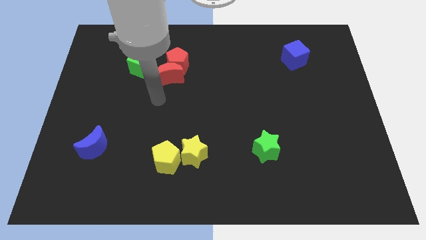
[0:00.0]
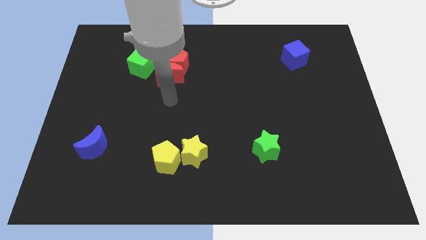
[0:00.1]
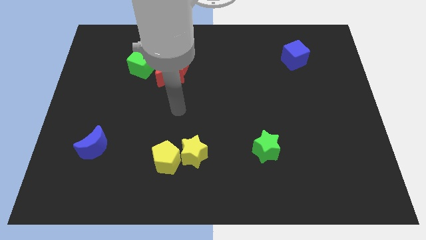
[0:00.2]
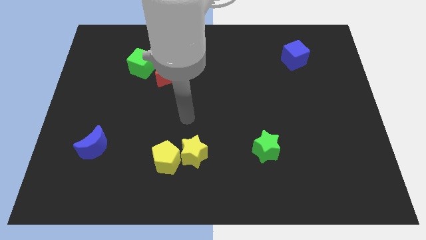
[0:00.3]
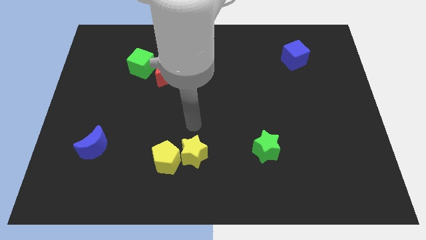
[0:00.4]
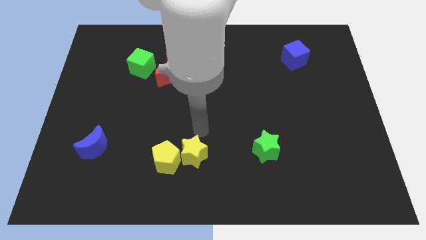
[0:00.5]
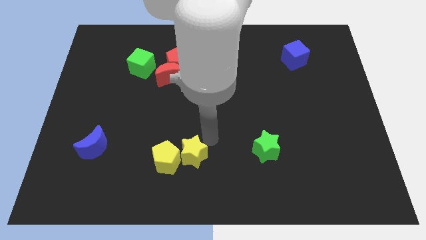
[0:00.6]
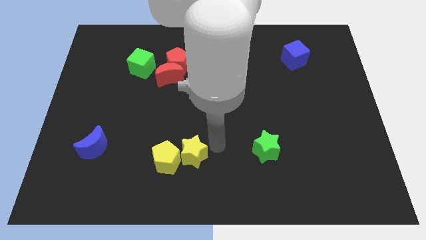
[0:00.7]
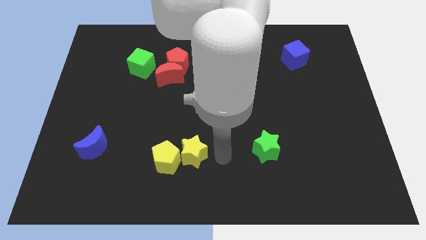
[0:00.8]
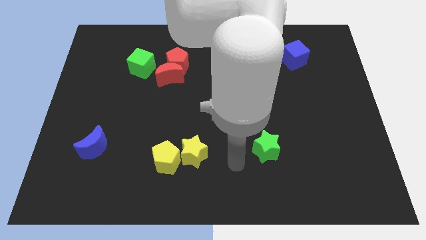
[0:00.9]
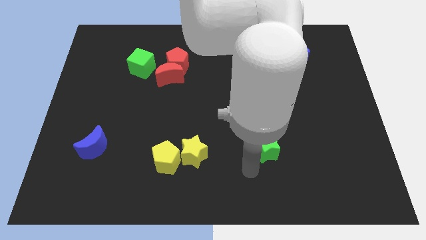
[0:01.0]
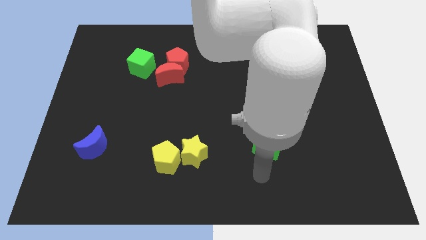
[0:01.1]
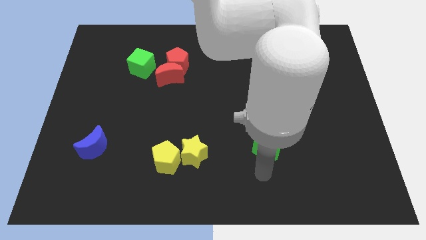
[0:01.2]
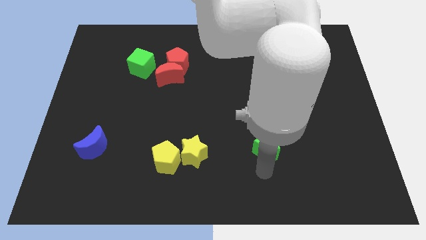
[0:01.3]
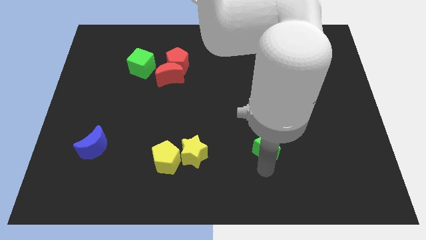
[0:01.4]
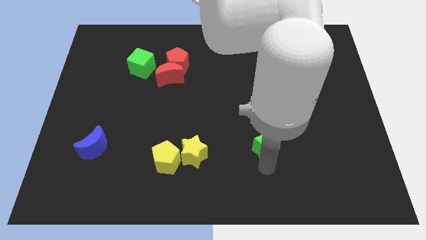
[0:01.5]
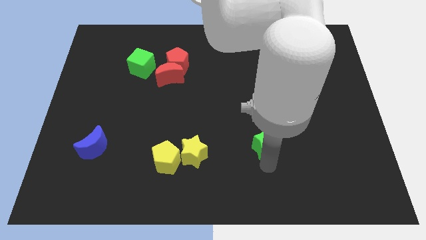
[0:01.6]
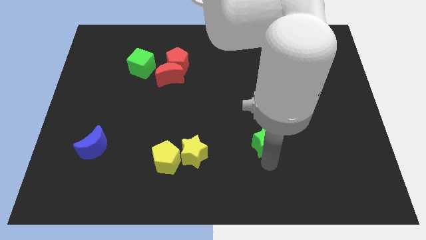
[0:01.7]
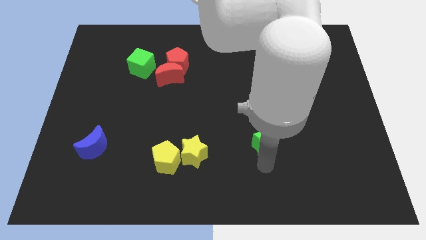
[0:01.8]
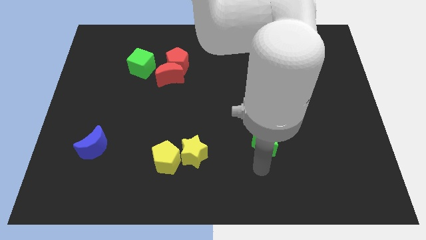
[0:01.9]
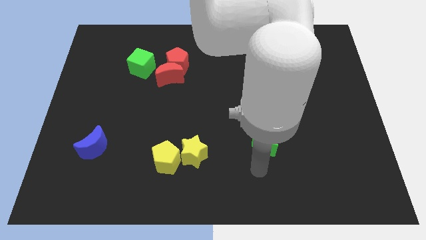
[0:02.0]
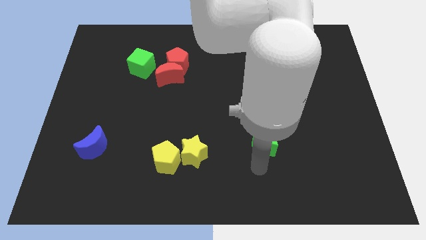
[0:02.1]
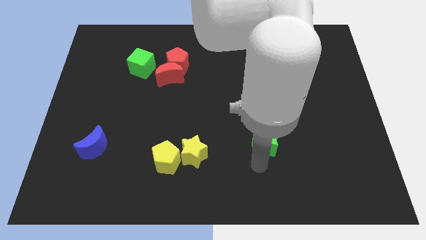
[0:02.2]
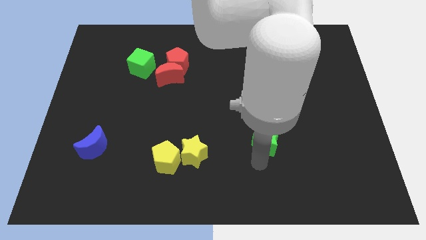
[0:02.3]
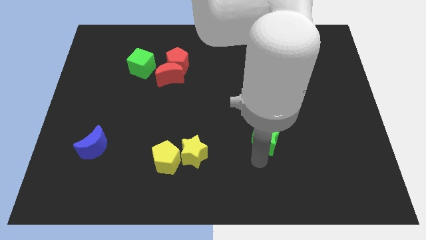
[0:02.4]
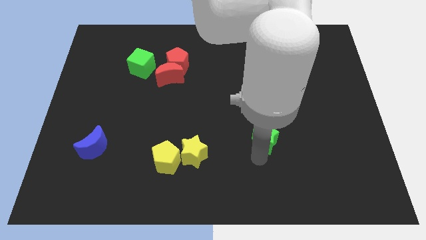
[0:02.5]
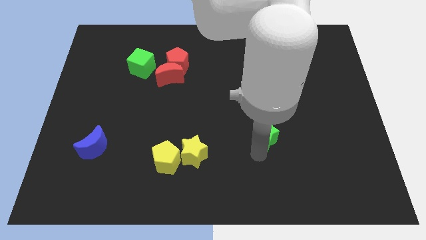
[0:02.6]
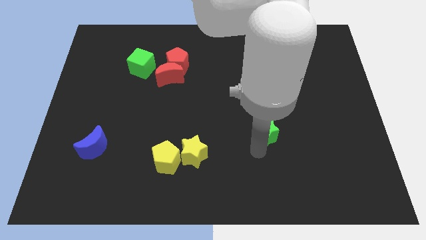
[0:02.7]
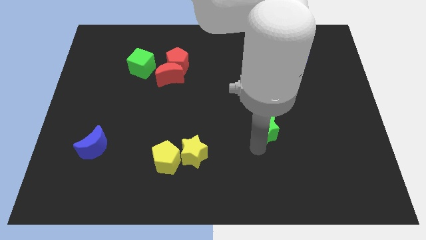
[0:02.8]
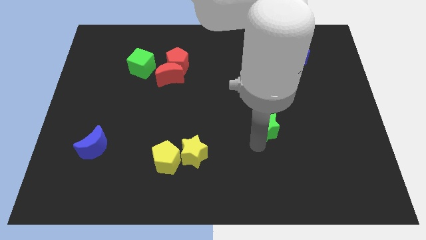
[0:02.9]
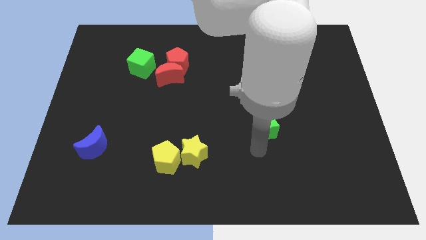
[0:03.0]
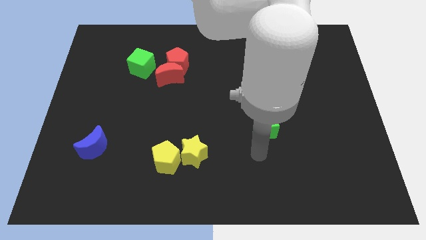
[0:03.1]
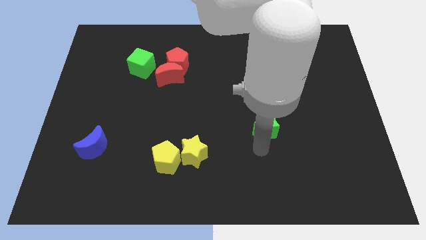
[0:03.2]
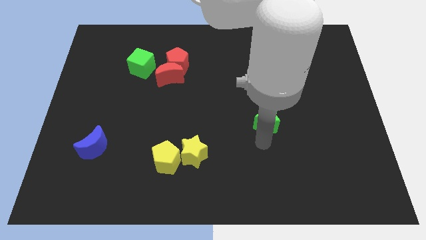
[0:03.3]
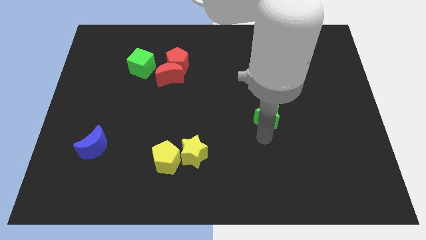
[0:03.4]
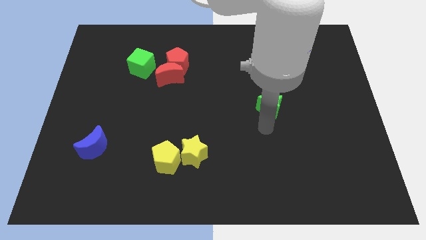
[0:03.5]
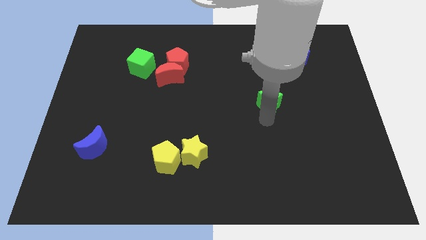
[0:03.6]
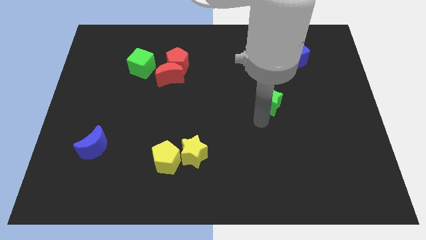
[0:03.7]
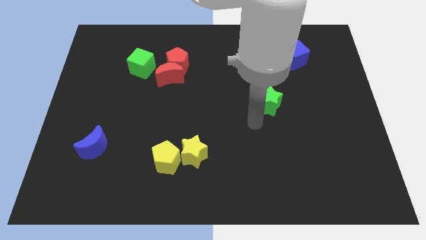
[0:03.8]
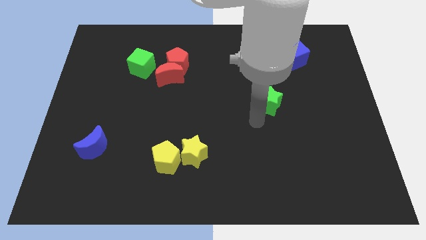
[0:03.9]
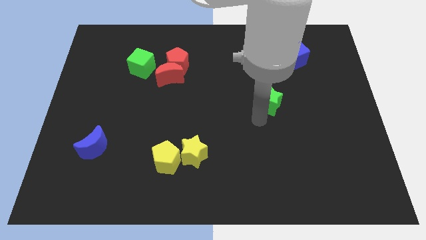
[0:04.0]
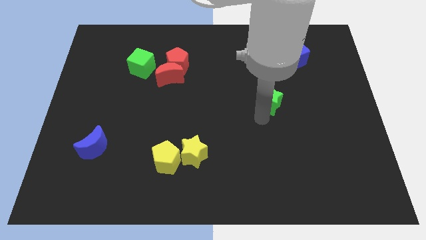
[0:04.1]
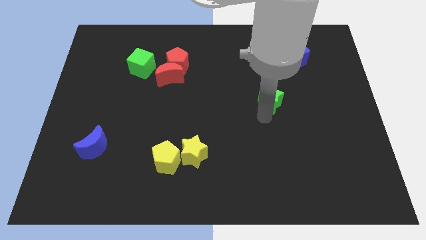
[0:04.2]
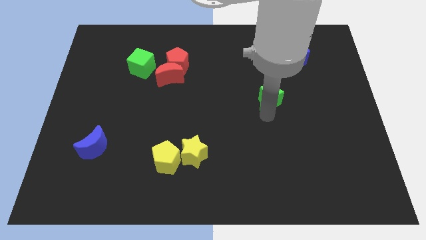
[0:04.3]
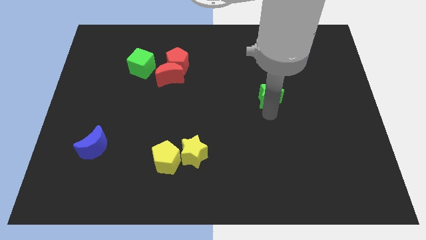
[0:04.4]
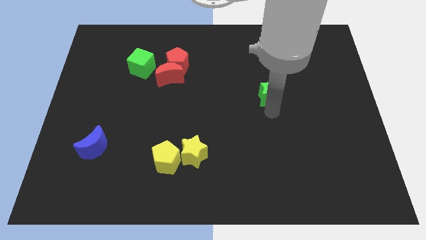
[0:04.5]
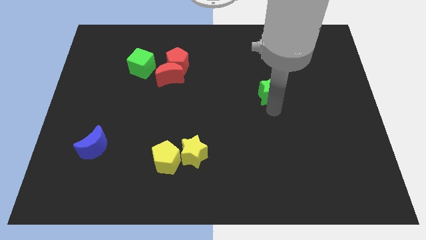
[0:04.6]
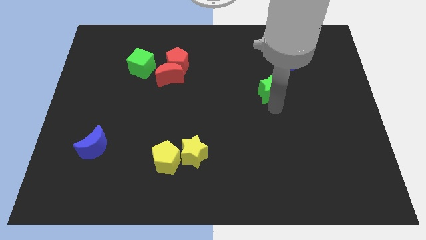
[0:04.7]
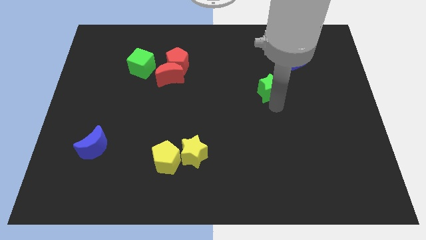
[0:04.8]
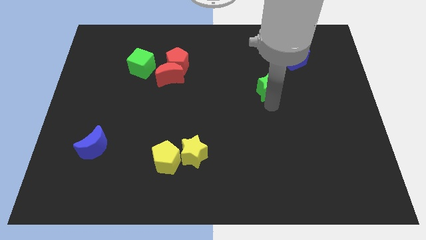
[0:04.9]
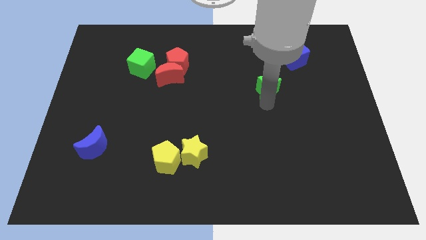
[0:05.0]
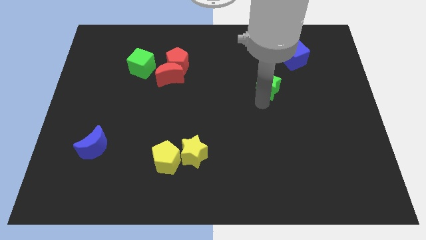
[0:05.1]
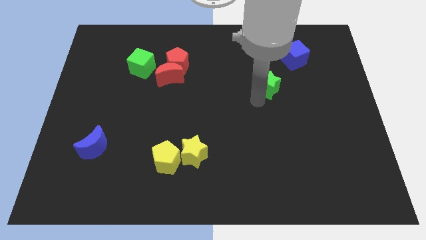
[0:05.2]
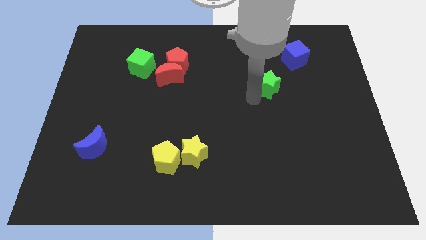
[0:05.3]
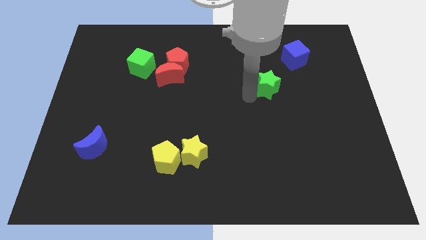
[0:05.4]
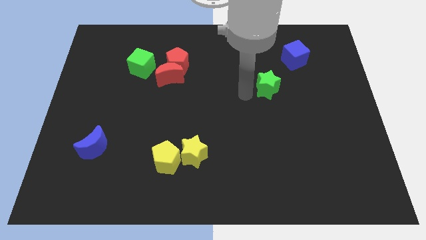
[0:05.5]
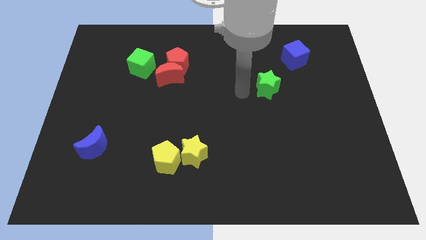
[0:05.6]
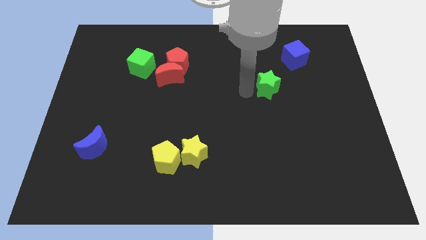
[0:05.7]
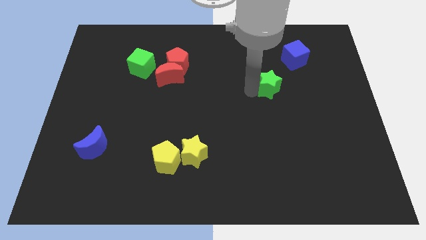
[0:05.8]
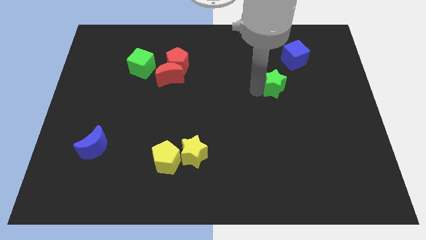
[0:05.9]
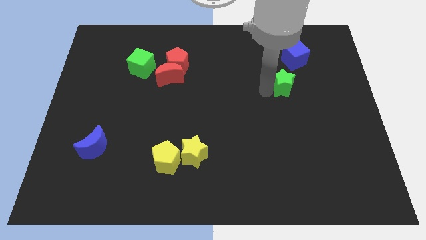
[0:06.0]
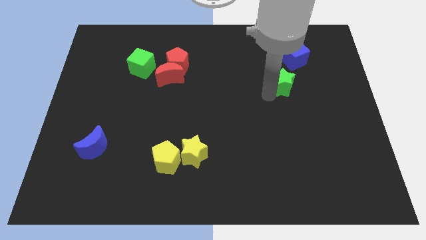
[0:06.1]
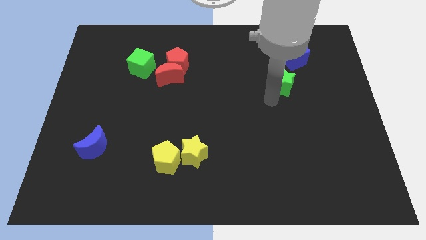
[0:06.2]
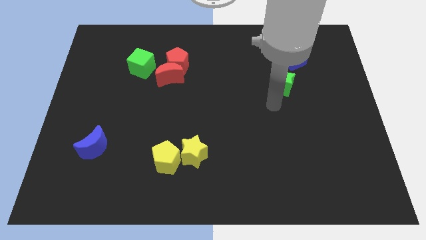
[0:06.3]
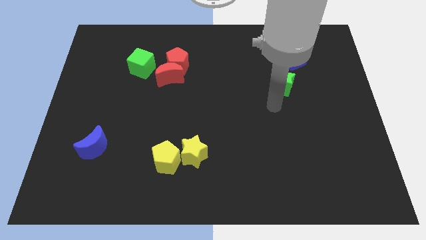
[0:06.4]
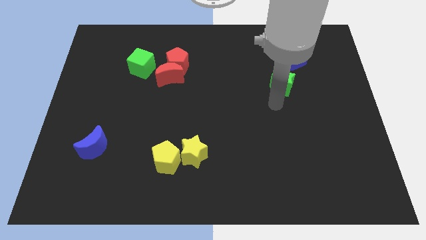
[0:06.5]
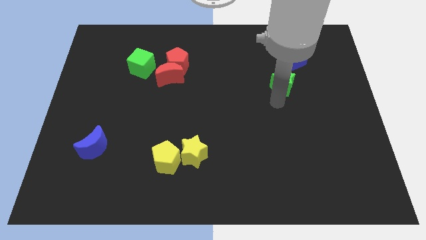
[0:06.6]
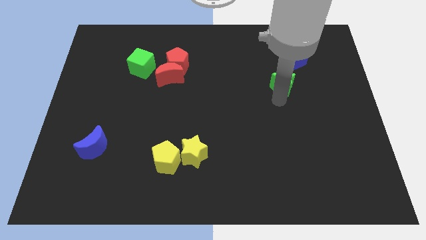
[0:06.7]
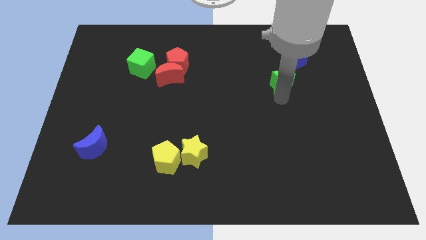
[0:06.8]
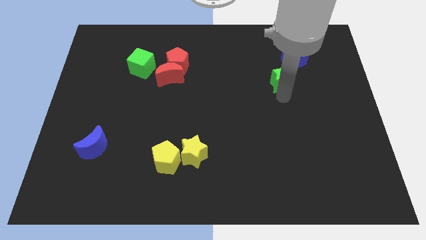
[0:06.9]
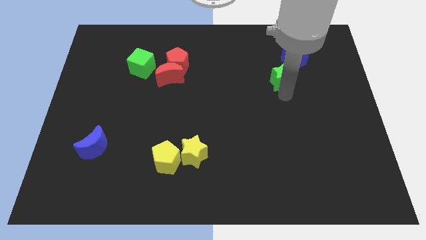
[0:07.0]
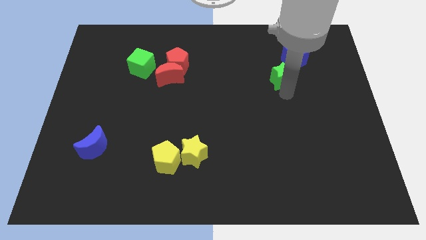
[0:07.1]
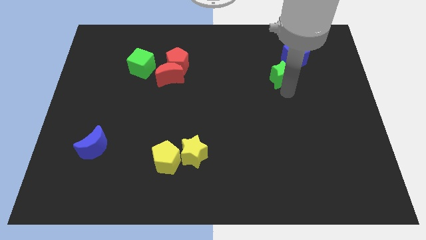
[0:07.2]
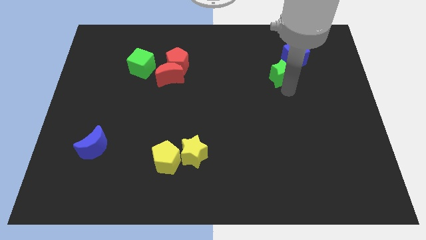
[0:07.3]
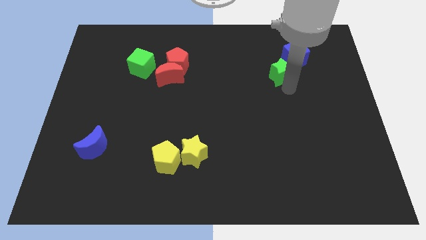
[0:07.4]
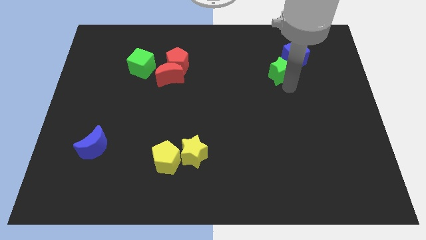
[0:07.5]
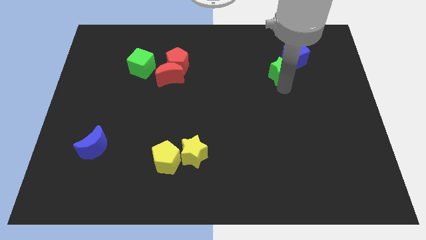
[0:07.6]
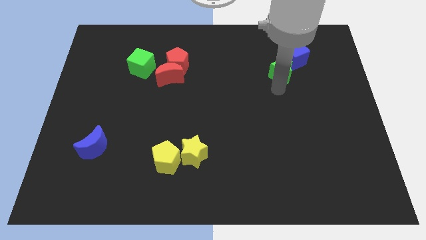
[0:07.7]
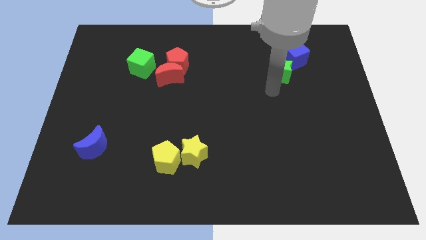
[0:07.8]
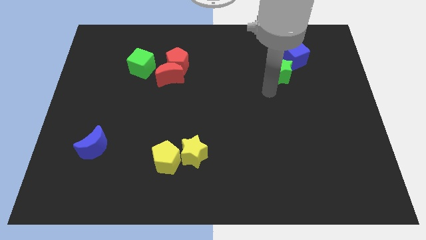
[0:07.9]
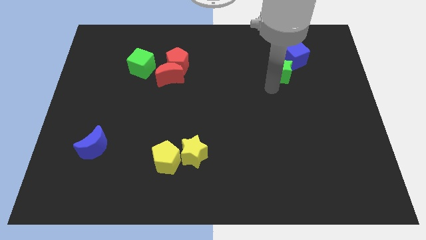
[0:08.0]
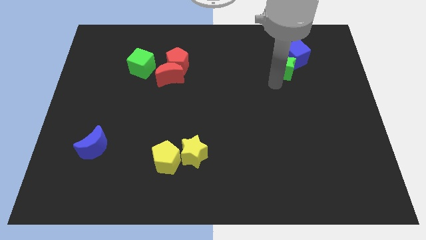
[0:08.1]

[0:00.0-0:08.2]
put the green star to the blue cube
